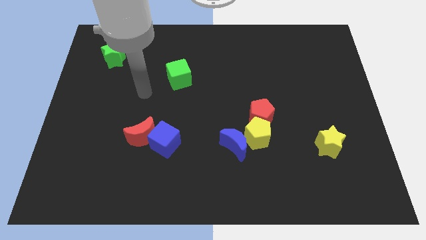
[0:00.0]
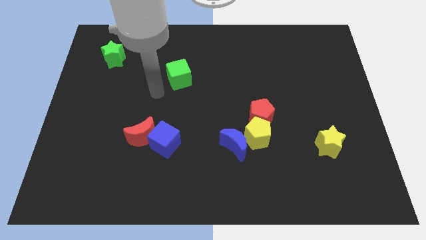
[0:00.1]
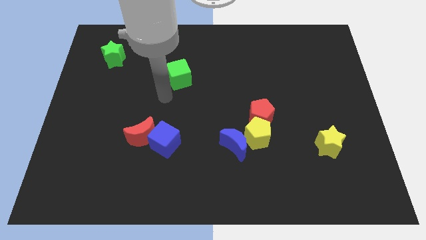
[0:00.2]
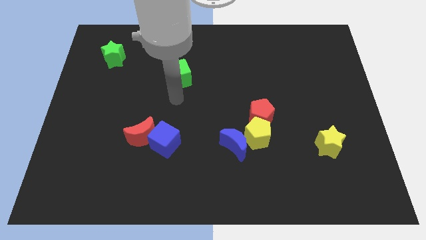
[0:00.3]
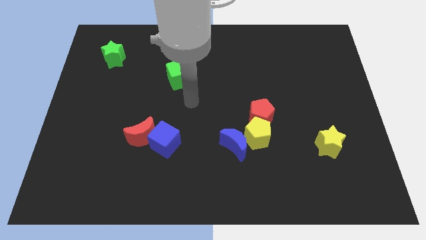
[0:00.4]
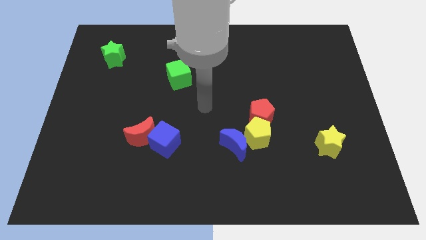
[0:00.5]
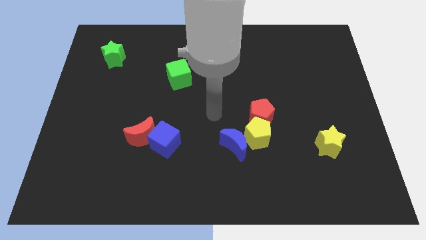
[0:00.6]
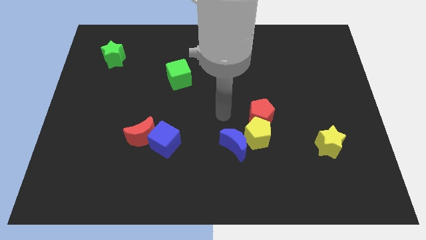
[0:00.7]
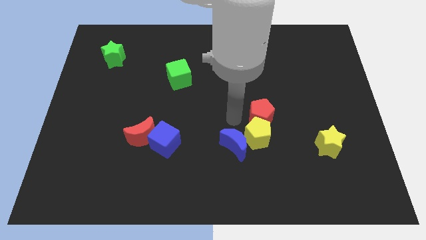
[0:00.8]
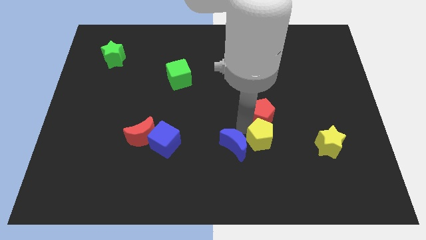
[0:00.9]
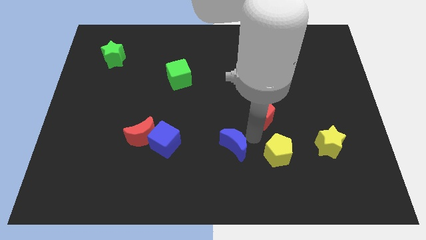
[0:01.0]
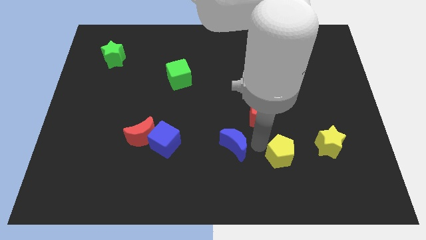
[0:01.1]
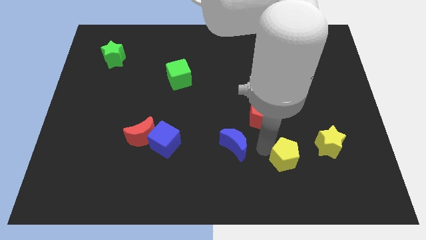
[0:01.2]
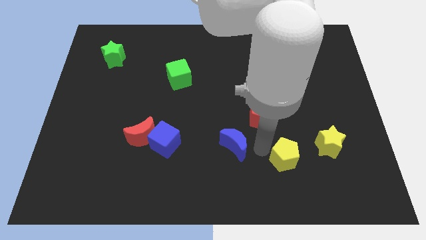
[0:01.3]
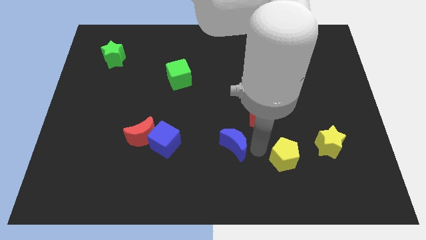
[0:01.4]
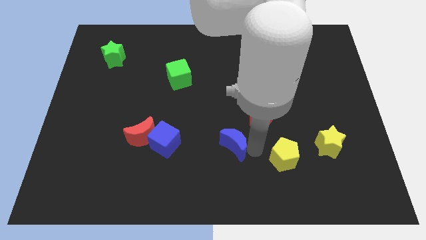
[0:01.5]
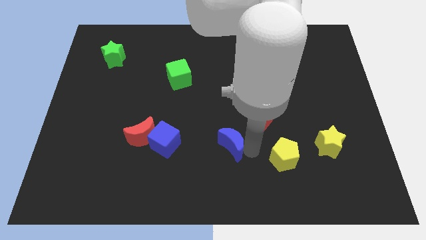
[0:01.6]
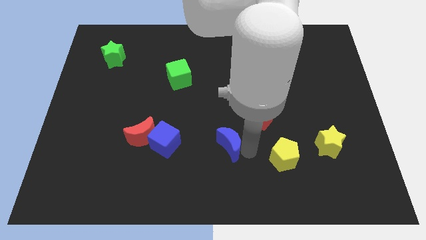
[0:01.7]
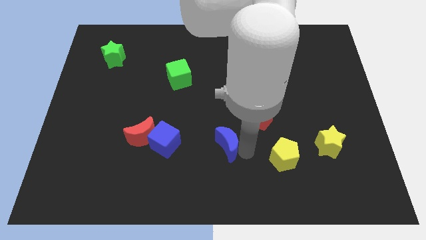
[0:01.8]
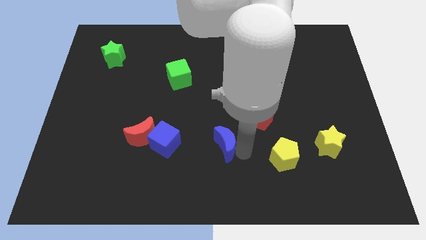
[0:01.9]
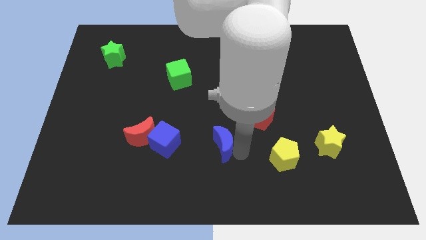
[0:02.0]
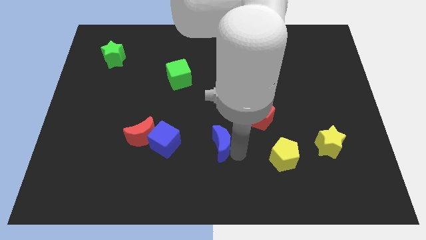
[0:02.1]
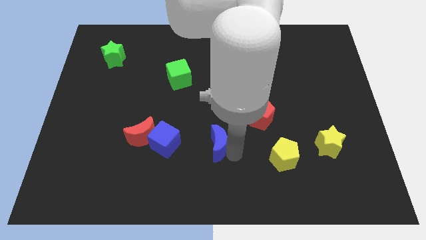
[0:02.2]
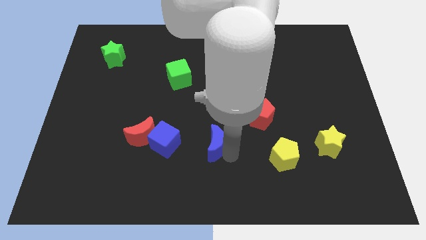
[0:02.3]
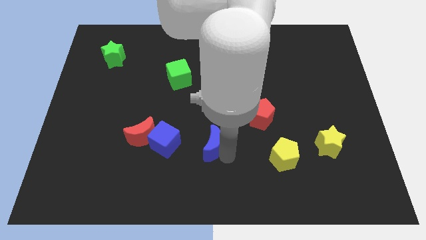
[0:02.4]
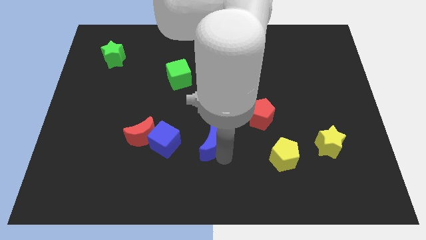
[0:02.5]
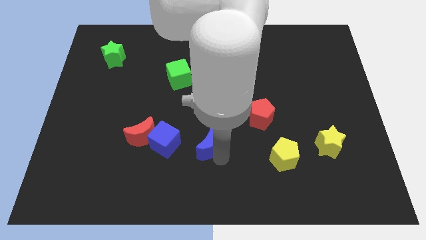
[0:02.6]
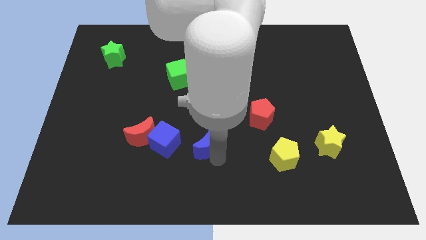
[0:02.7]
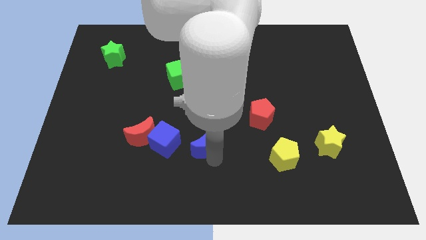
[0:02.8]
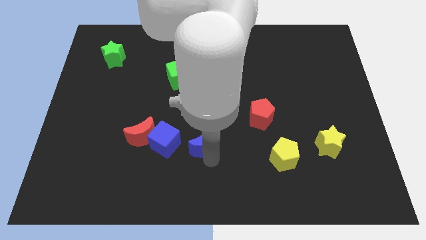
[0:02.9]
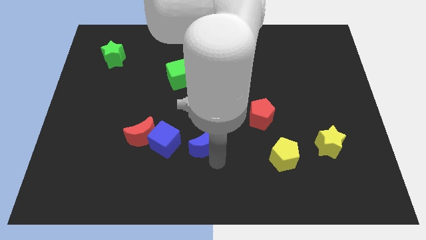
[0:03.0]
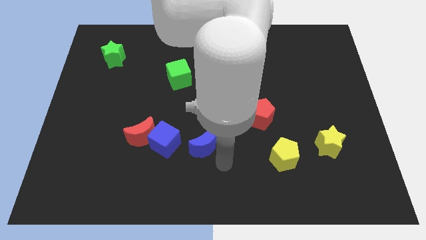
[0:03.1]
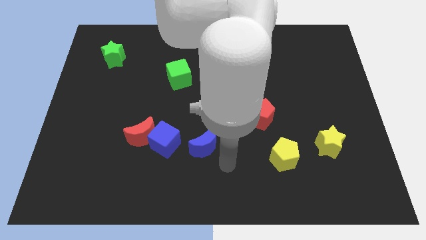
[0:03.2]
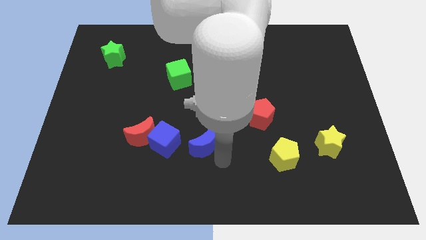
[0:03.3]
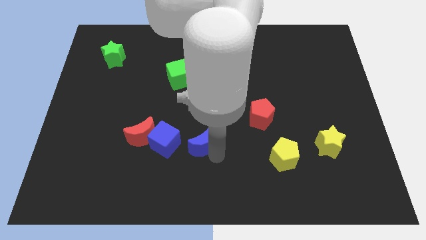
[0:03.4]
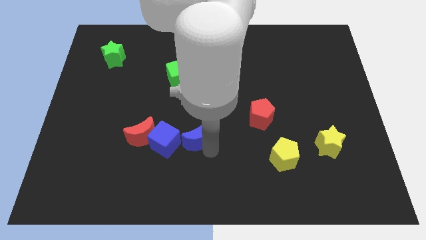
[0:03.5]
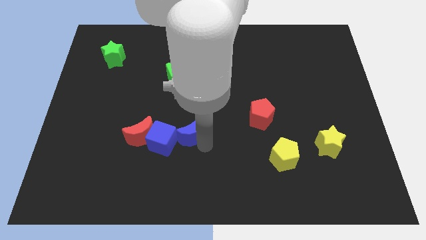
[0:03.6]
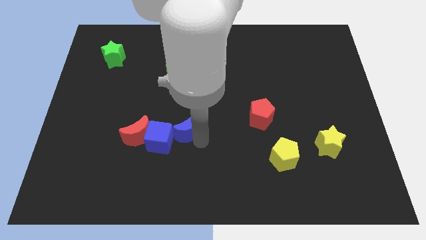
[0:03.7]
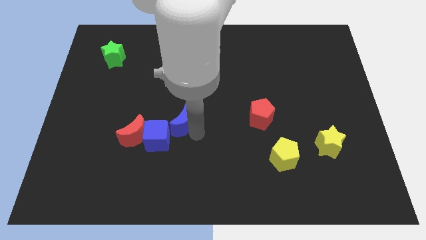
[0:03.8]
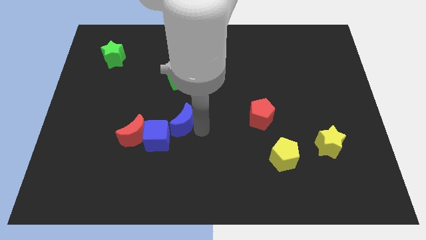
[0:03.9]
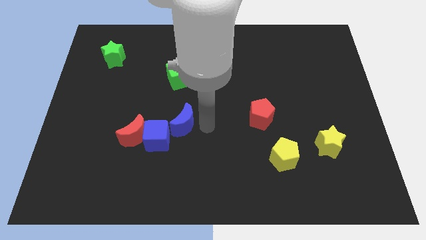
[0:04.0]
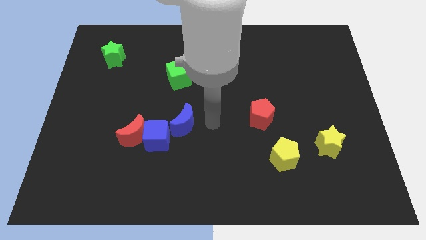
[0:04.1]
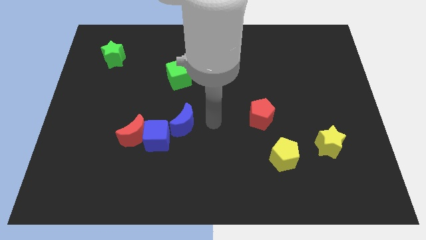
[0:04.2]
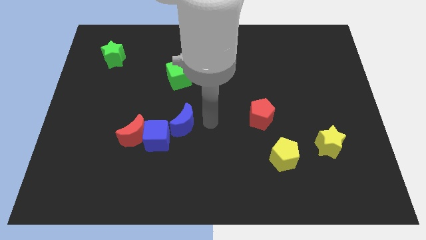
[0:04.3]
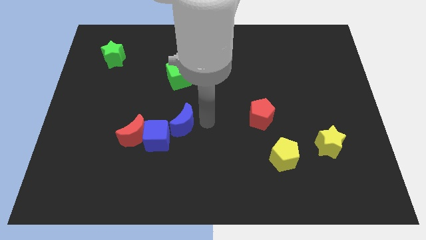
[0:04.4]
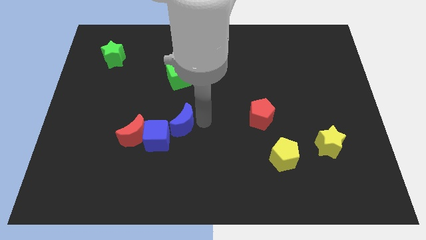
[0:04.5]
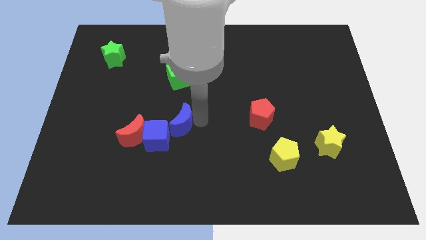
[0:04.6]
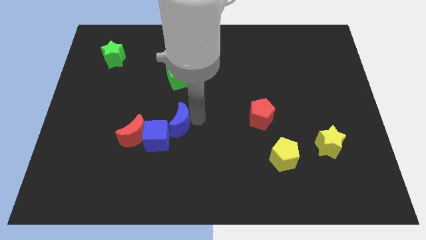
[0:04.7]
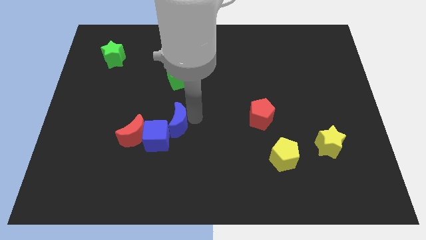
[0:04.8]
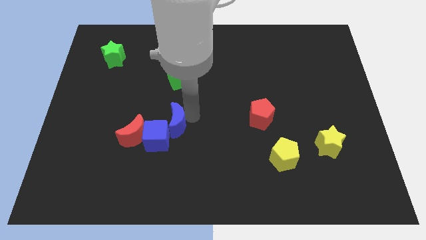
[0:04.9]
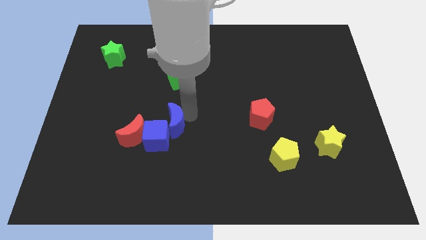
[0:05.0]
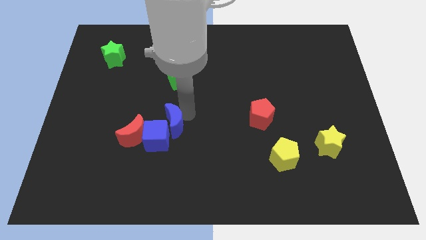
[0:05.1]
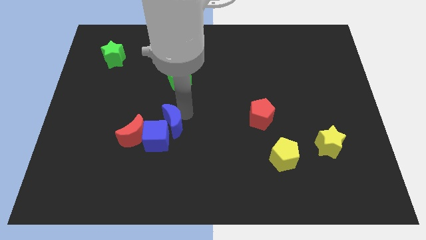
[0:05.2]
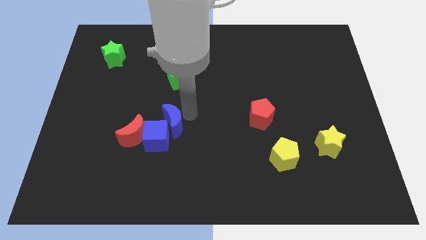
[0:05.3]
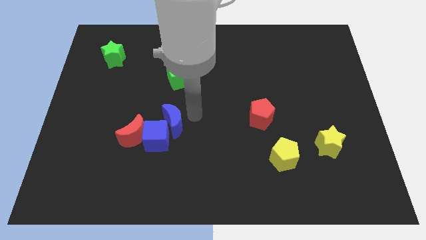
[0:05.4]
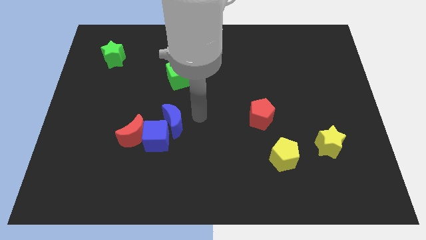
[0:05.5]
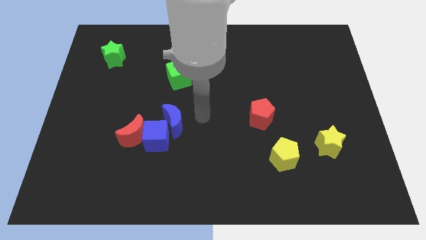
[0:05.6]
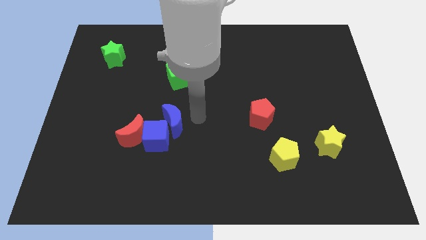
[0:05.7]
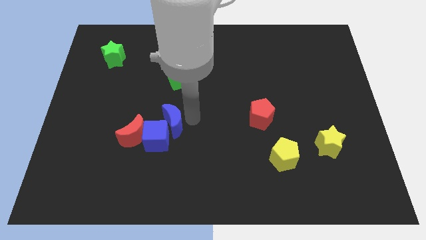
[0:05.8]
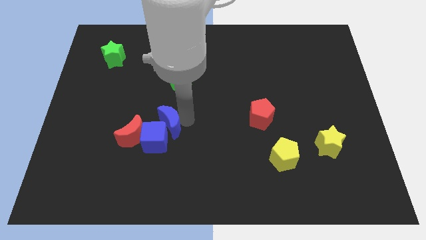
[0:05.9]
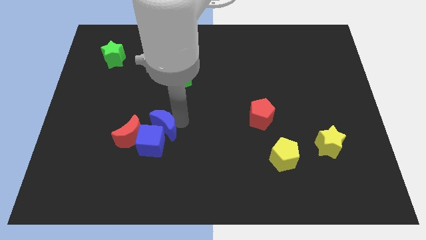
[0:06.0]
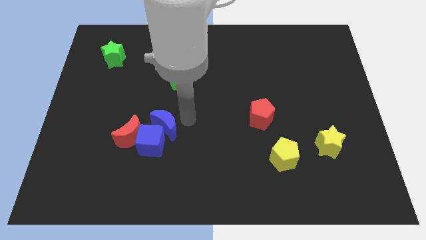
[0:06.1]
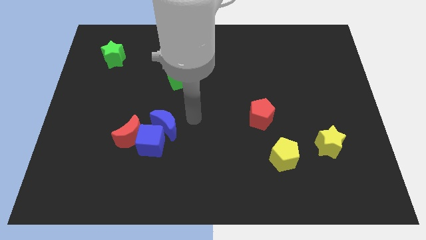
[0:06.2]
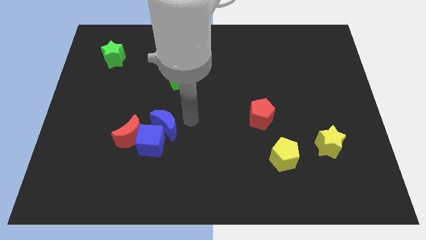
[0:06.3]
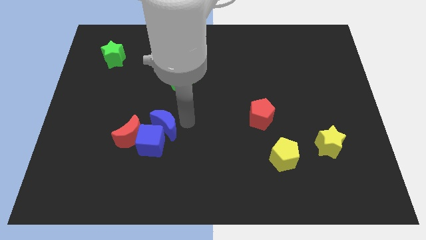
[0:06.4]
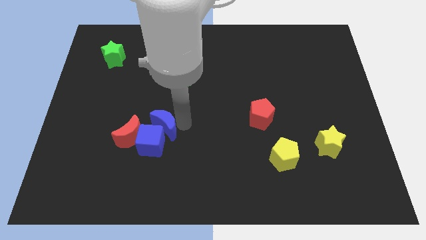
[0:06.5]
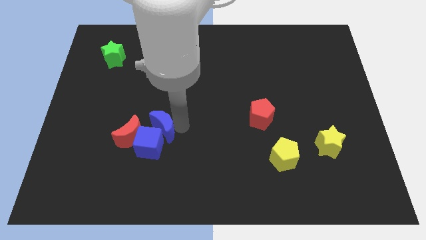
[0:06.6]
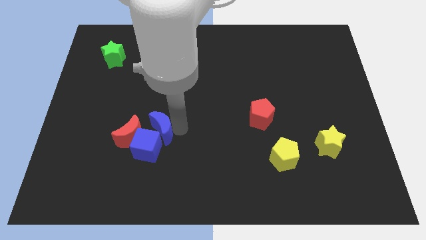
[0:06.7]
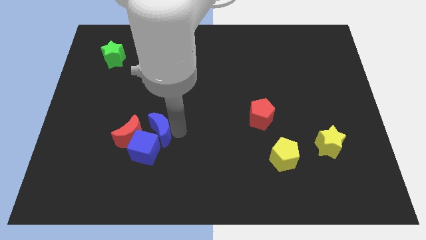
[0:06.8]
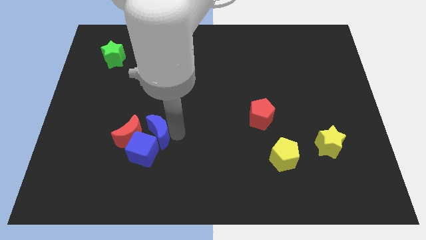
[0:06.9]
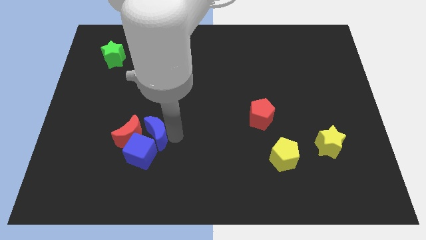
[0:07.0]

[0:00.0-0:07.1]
move the blue moon towards the red moon

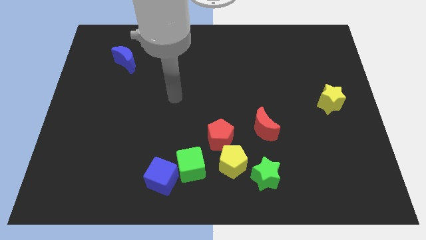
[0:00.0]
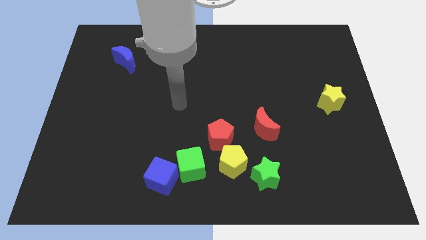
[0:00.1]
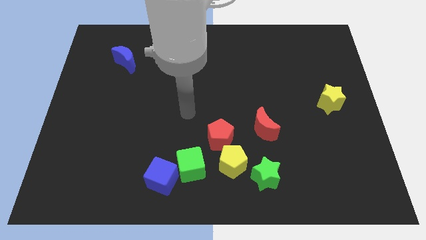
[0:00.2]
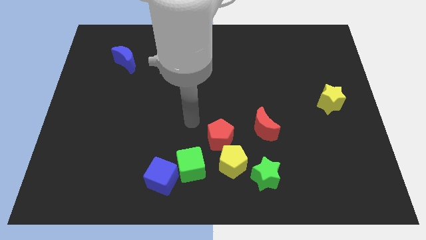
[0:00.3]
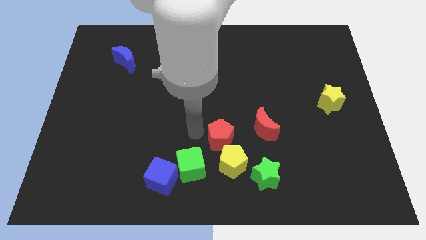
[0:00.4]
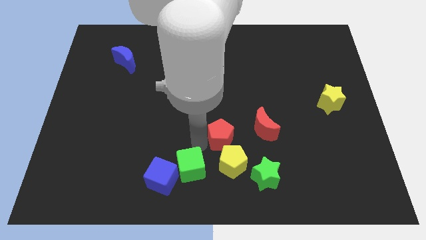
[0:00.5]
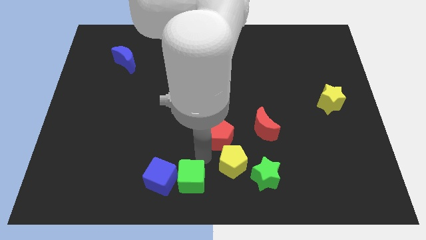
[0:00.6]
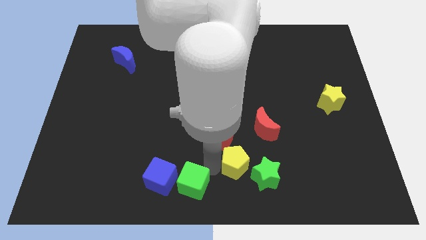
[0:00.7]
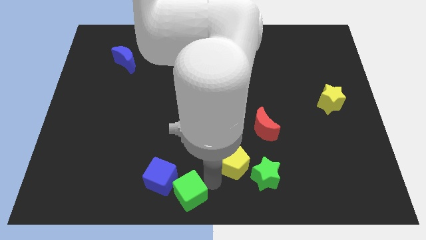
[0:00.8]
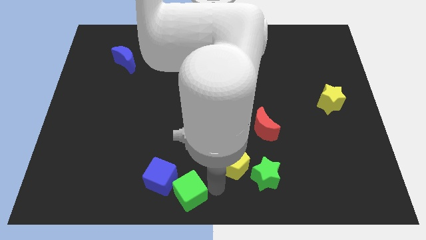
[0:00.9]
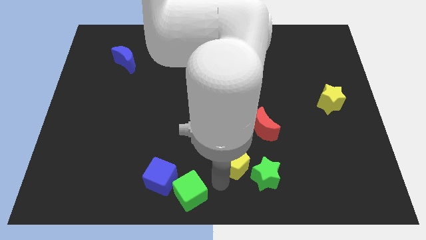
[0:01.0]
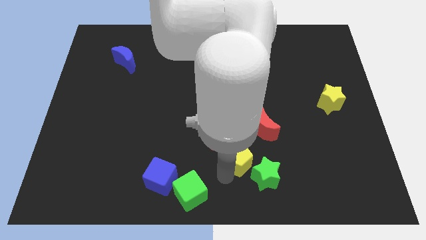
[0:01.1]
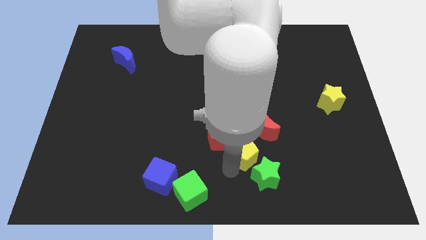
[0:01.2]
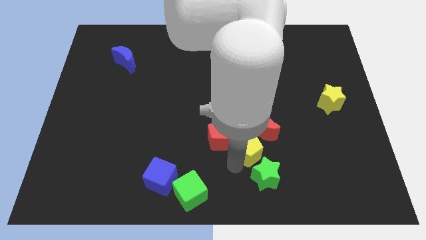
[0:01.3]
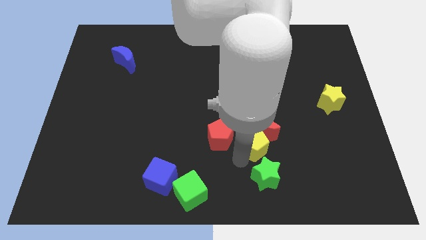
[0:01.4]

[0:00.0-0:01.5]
put the yellow pentagon close to the red moon
